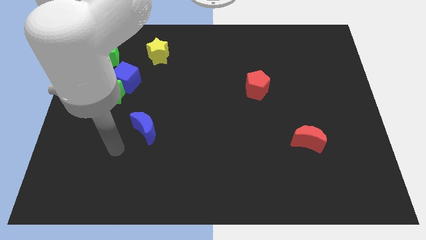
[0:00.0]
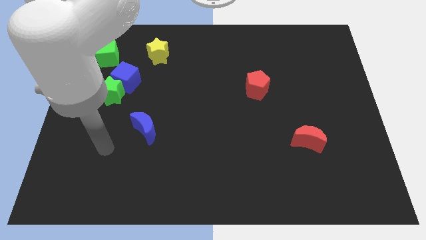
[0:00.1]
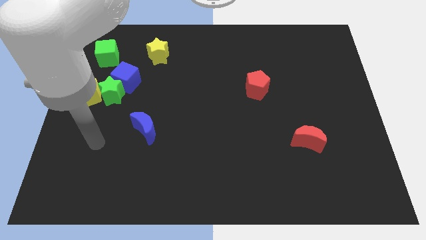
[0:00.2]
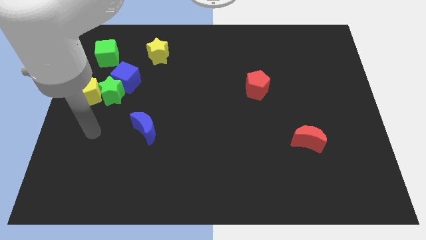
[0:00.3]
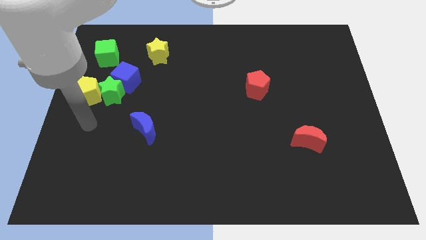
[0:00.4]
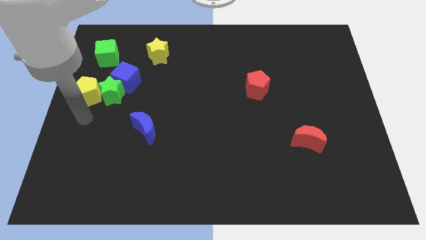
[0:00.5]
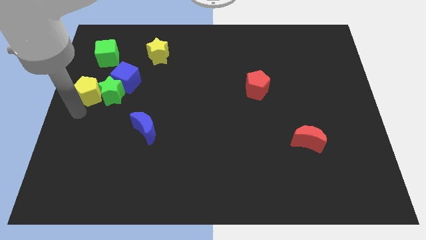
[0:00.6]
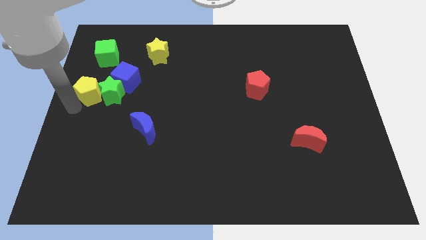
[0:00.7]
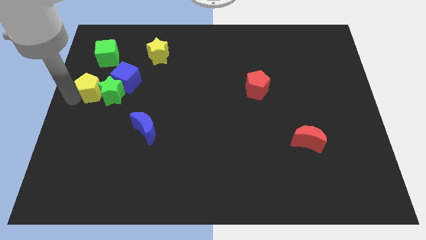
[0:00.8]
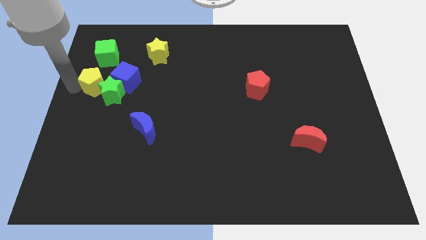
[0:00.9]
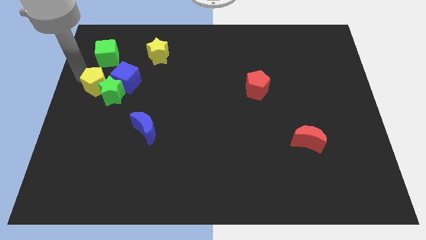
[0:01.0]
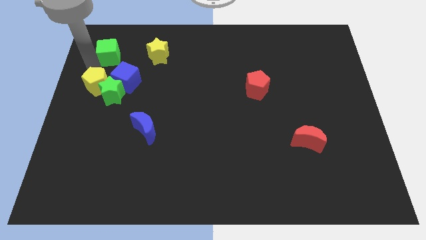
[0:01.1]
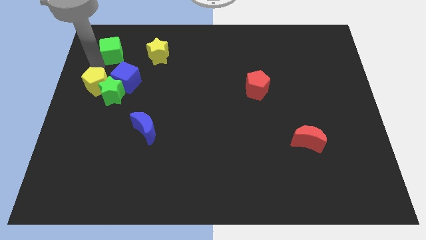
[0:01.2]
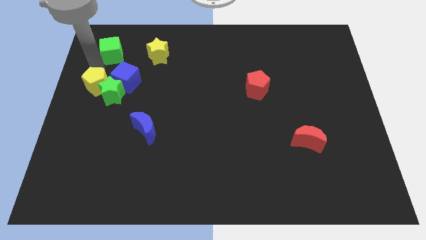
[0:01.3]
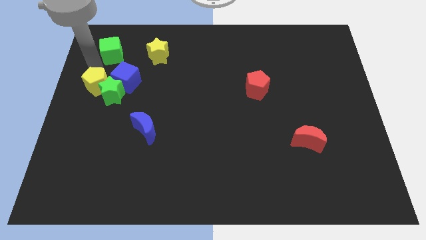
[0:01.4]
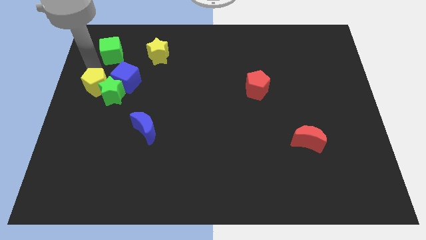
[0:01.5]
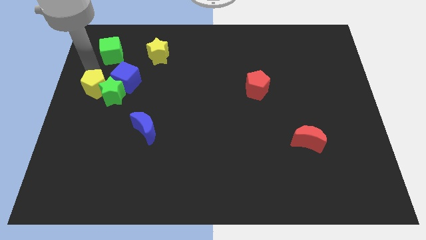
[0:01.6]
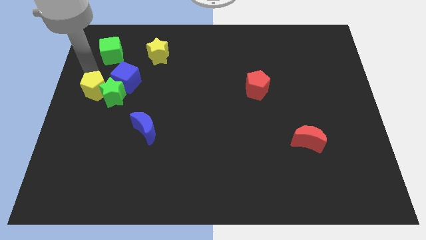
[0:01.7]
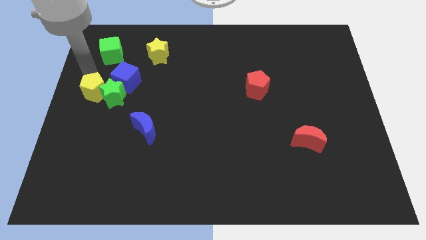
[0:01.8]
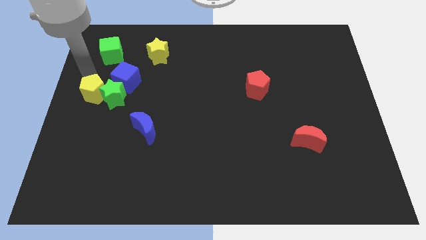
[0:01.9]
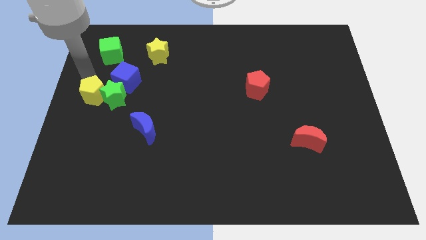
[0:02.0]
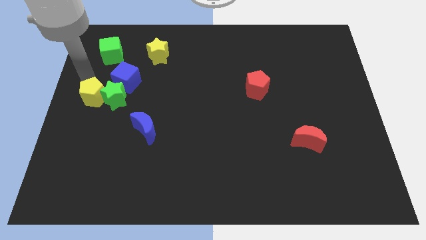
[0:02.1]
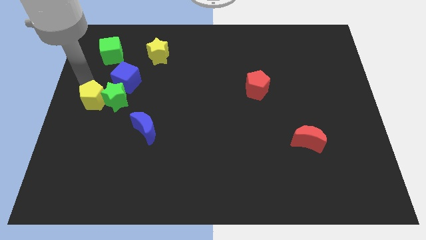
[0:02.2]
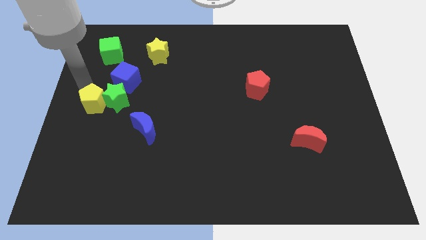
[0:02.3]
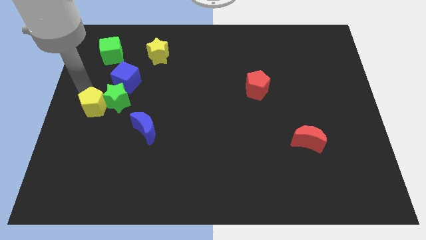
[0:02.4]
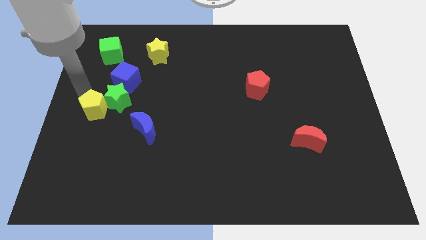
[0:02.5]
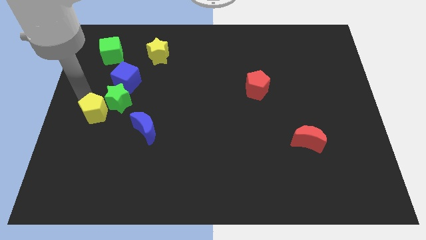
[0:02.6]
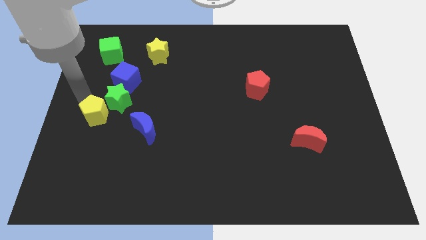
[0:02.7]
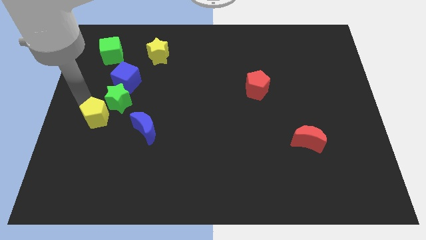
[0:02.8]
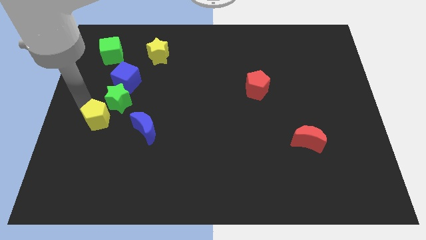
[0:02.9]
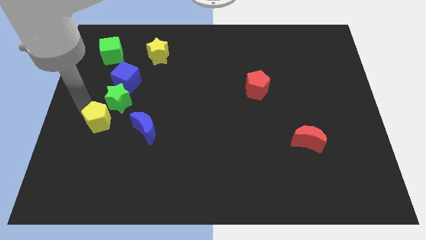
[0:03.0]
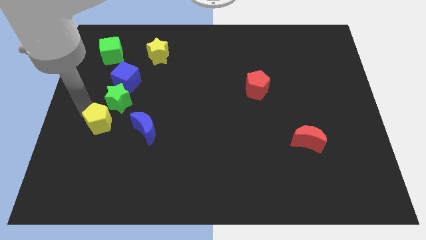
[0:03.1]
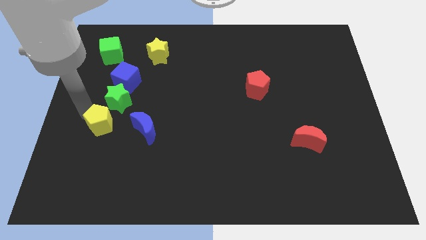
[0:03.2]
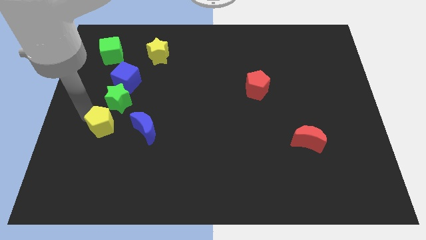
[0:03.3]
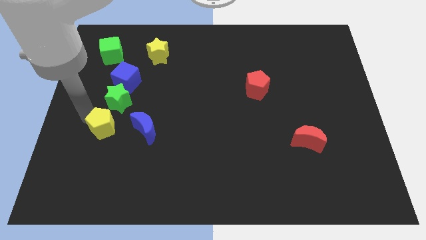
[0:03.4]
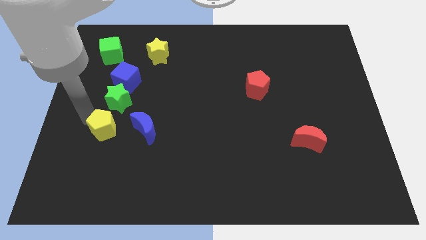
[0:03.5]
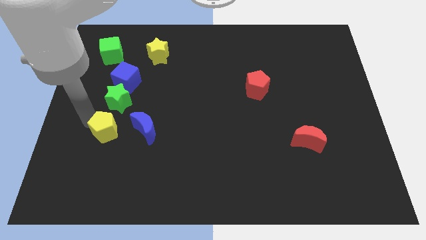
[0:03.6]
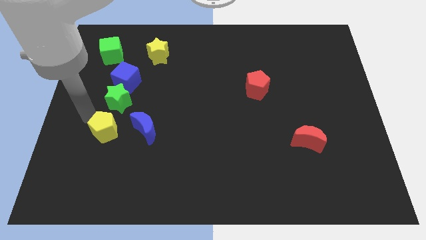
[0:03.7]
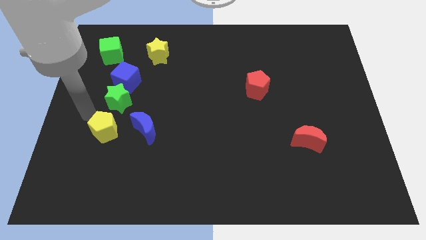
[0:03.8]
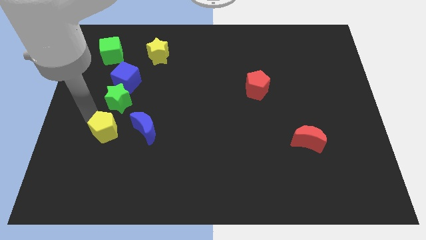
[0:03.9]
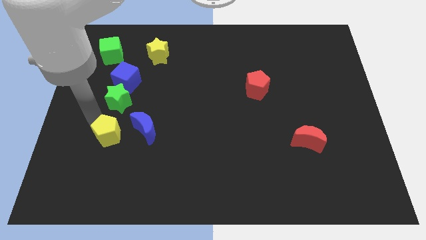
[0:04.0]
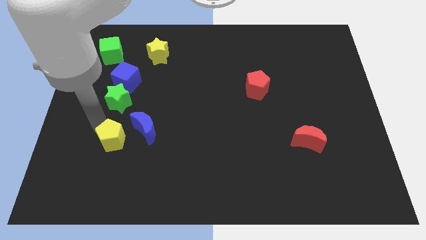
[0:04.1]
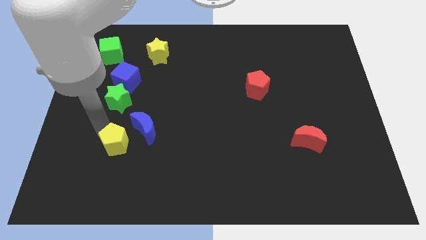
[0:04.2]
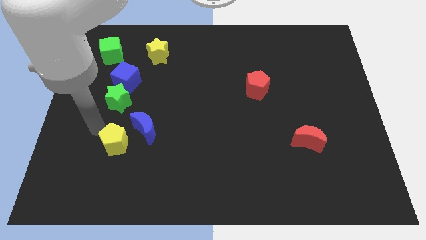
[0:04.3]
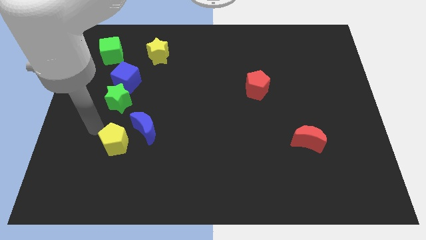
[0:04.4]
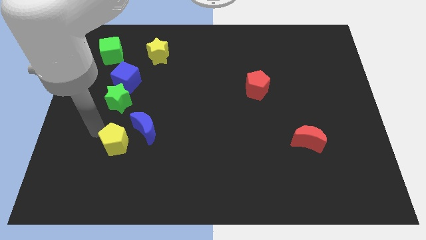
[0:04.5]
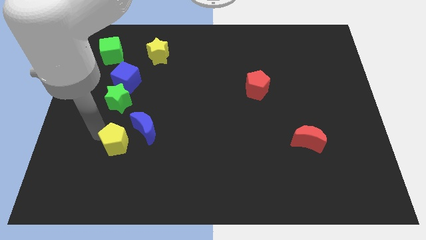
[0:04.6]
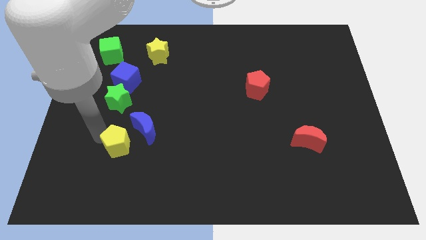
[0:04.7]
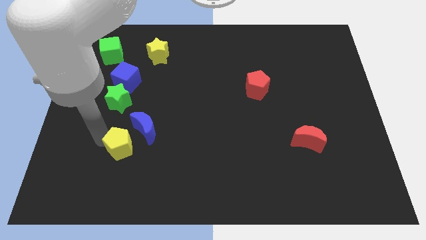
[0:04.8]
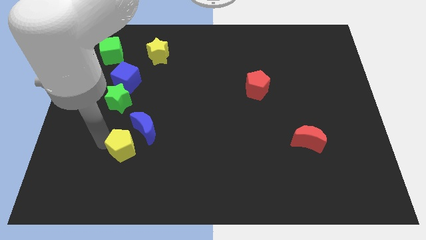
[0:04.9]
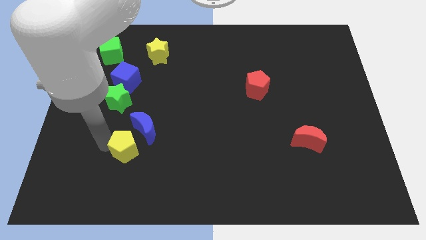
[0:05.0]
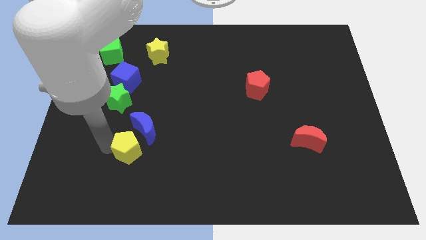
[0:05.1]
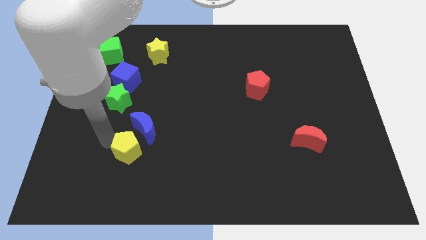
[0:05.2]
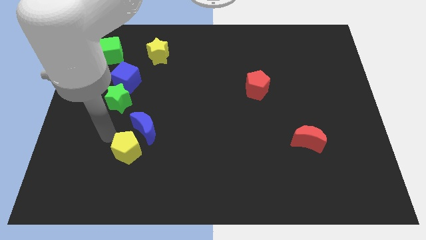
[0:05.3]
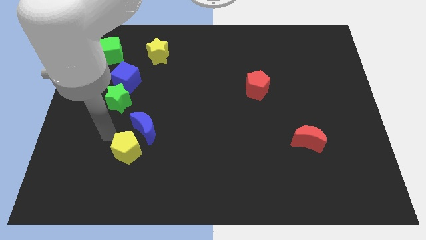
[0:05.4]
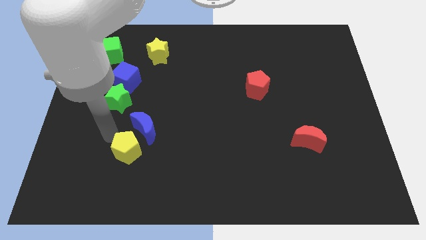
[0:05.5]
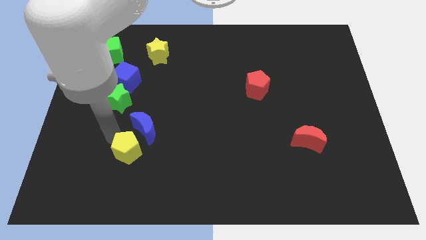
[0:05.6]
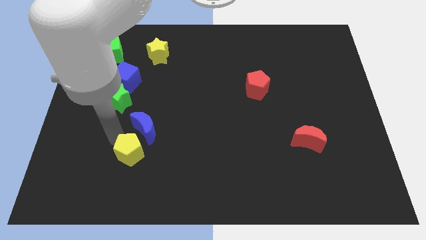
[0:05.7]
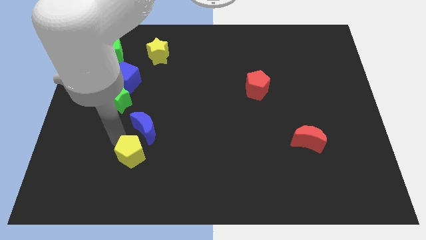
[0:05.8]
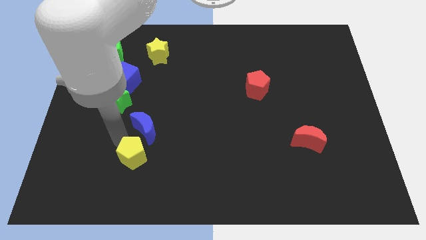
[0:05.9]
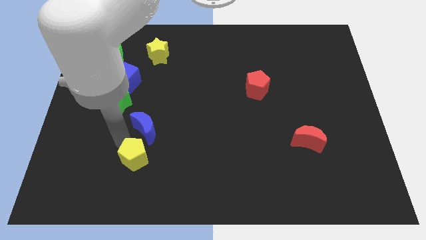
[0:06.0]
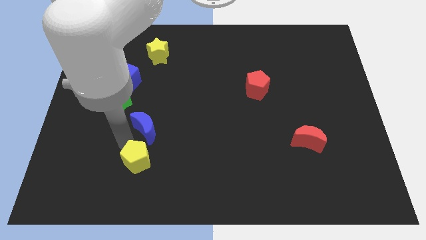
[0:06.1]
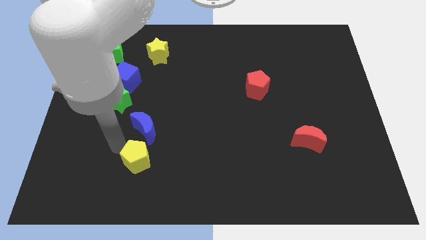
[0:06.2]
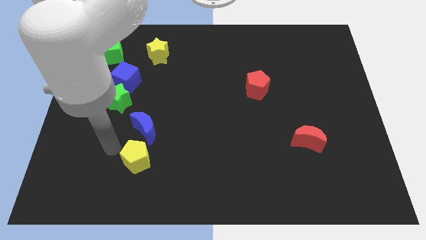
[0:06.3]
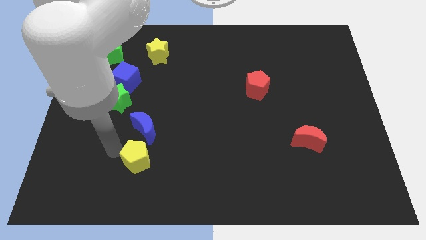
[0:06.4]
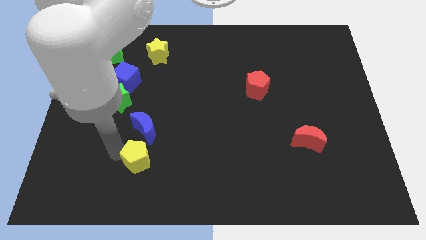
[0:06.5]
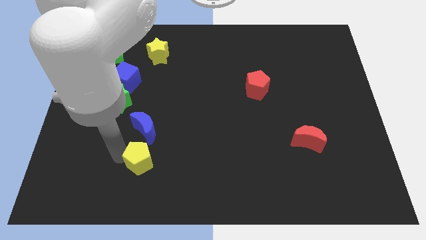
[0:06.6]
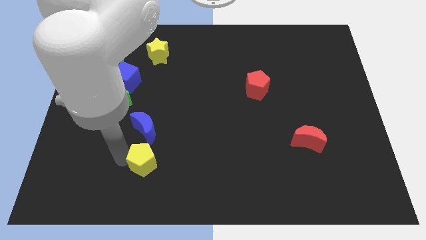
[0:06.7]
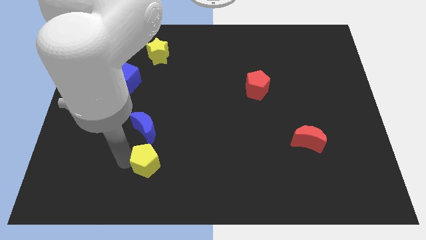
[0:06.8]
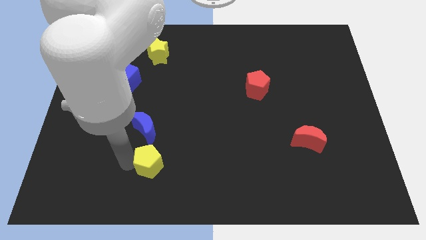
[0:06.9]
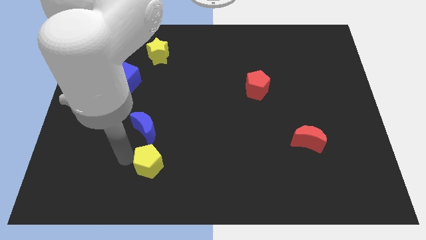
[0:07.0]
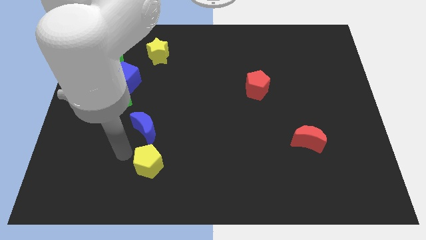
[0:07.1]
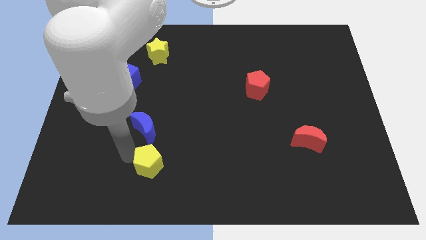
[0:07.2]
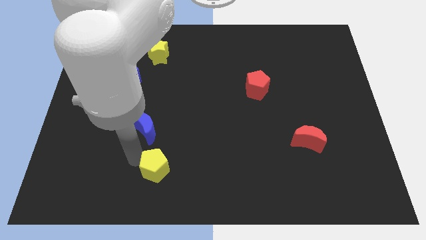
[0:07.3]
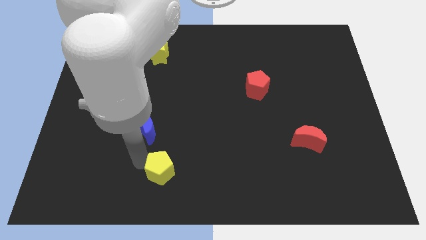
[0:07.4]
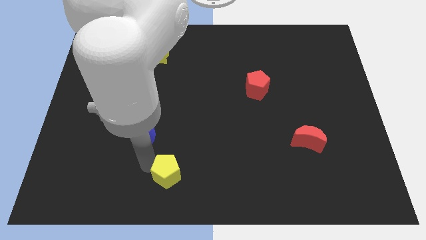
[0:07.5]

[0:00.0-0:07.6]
put the yellow pentagon to the bottom
